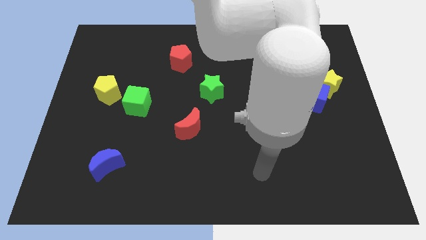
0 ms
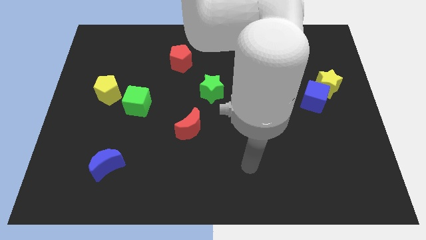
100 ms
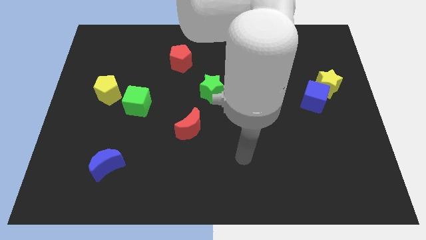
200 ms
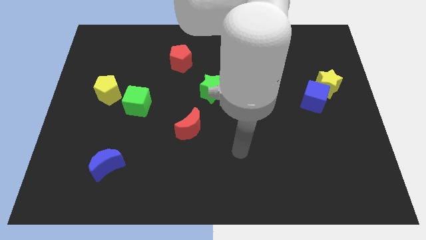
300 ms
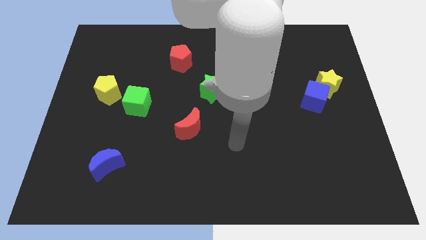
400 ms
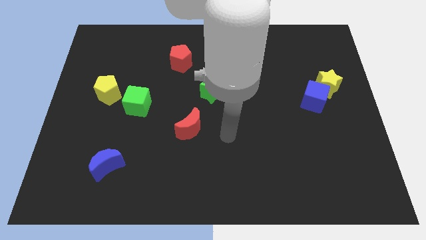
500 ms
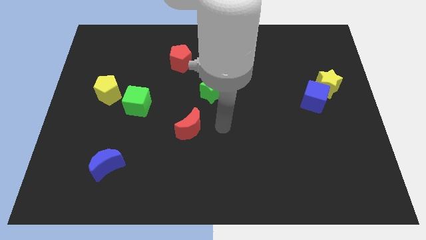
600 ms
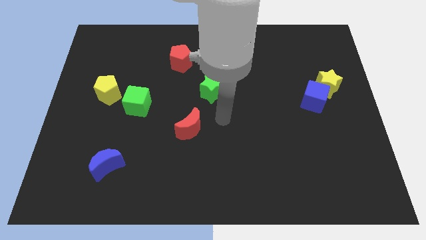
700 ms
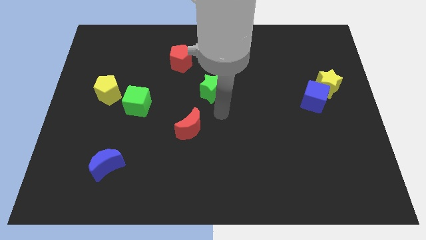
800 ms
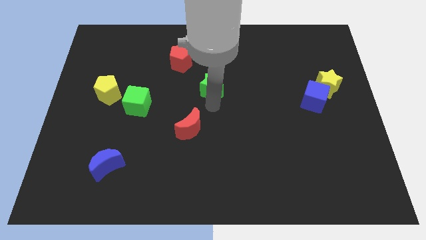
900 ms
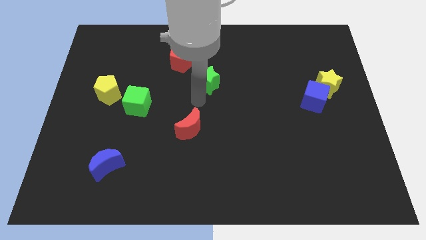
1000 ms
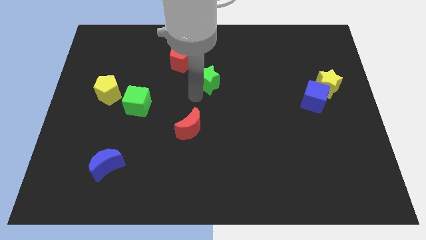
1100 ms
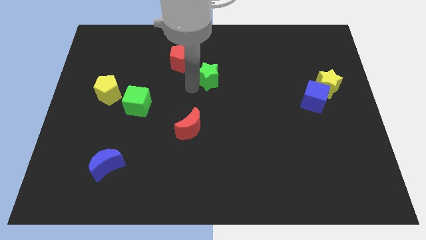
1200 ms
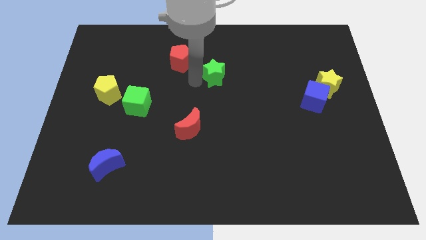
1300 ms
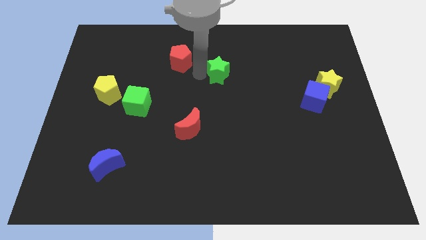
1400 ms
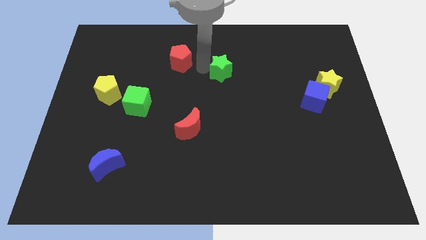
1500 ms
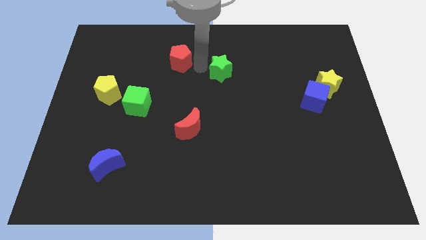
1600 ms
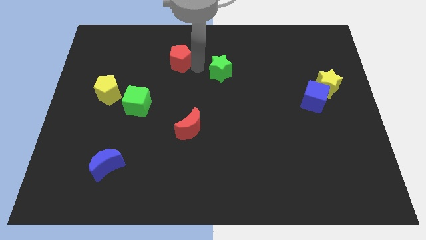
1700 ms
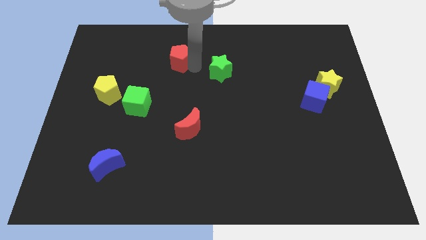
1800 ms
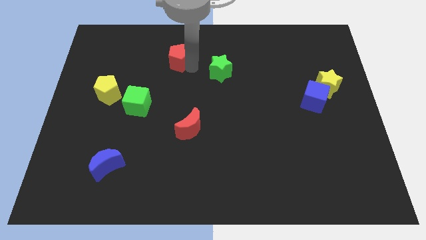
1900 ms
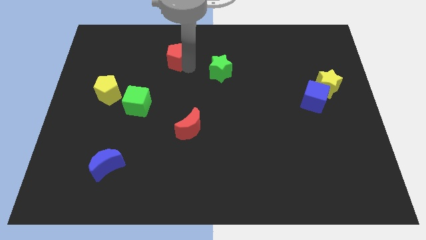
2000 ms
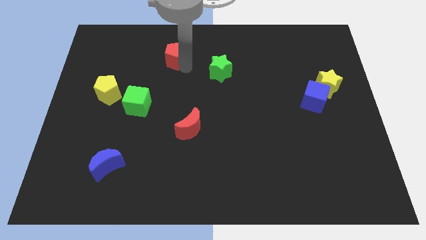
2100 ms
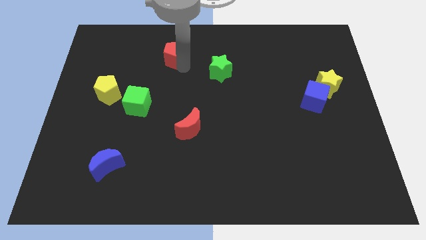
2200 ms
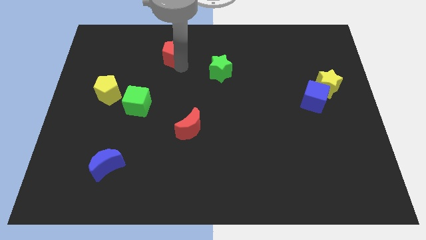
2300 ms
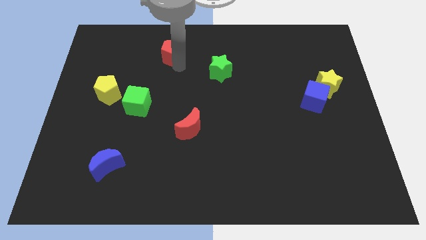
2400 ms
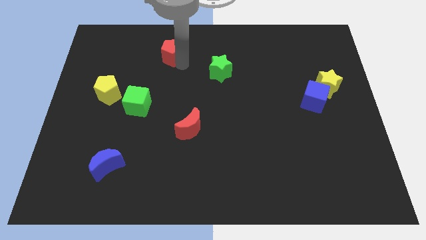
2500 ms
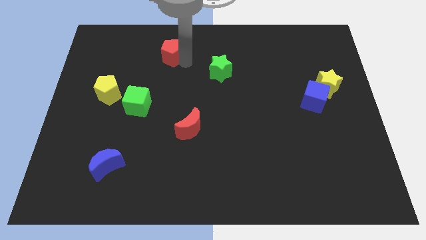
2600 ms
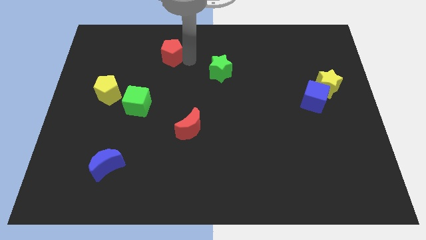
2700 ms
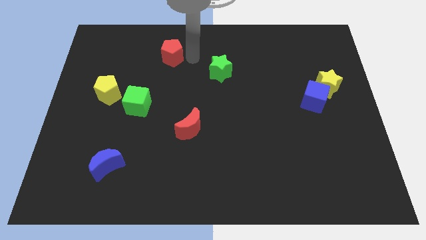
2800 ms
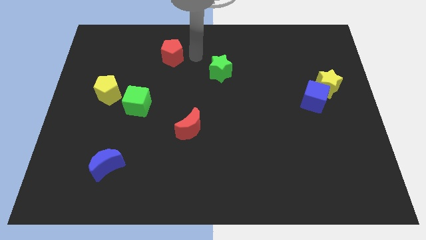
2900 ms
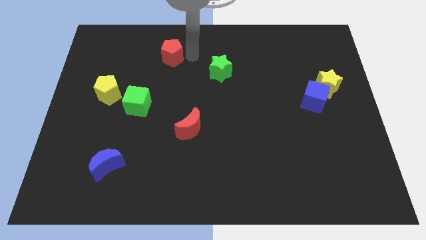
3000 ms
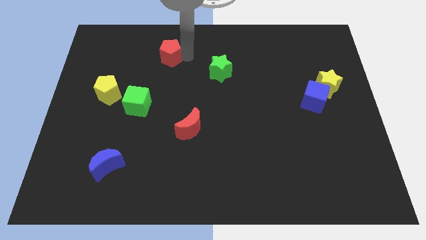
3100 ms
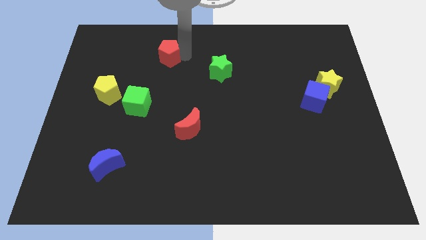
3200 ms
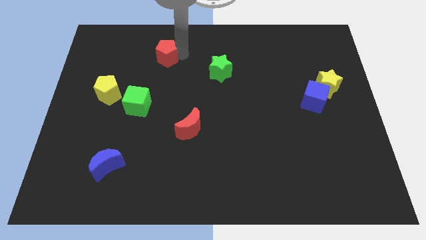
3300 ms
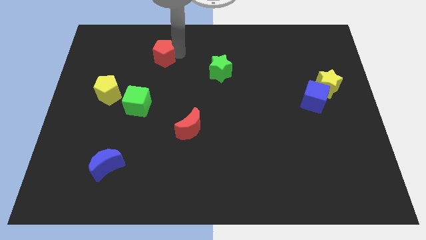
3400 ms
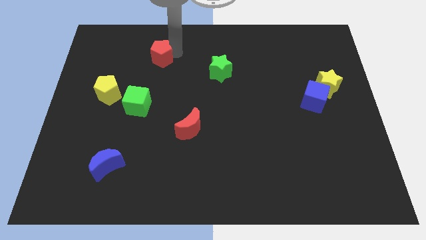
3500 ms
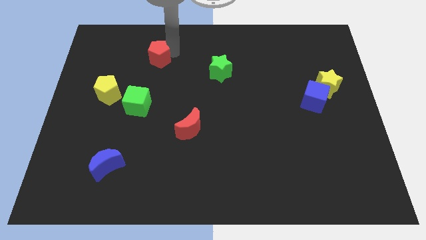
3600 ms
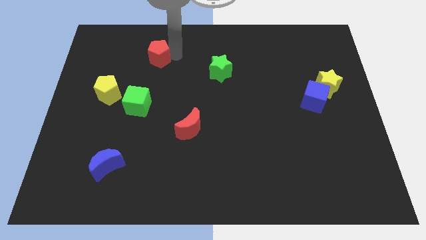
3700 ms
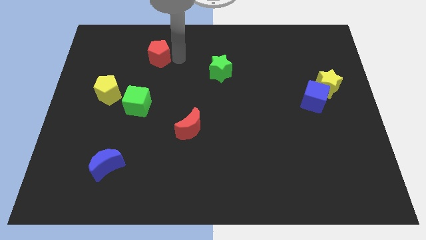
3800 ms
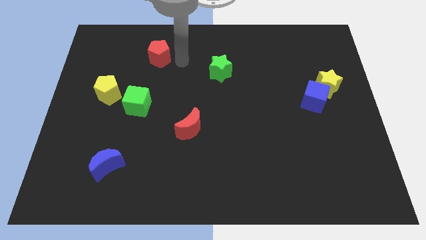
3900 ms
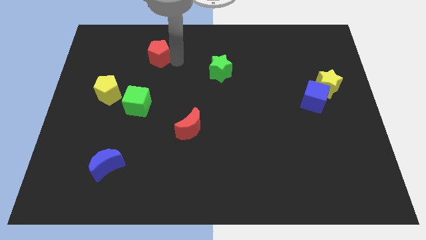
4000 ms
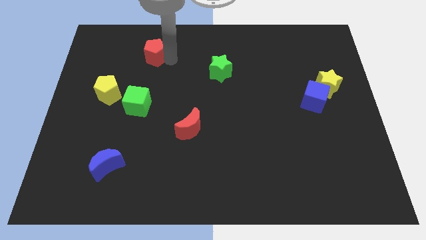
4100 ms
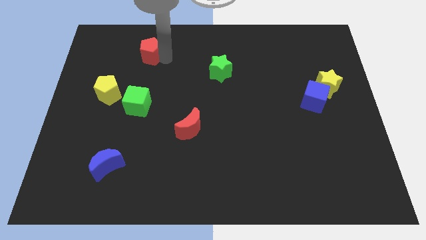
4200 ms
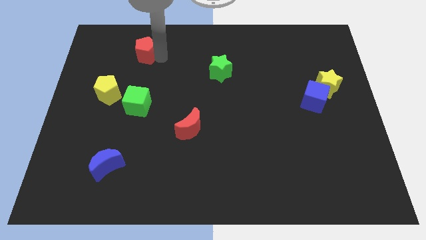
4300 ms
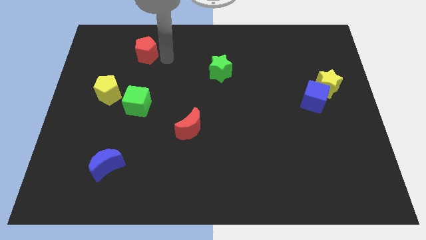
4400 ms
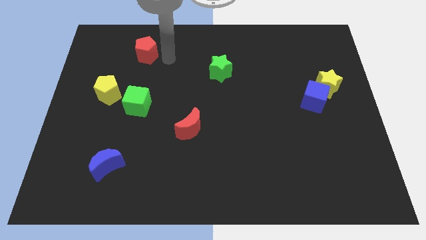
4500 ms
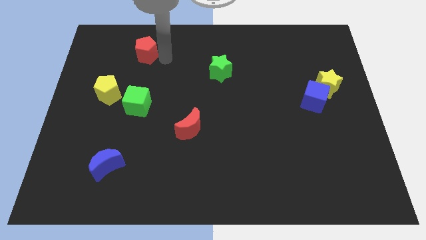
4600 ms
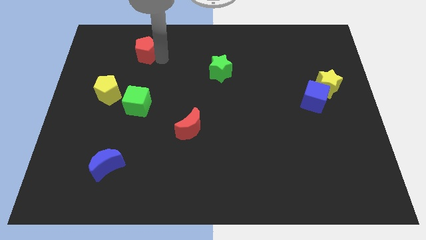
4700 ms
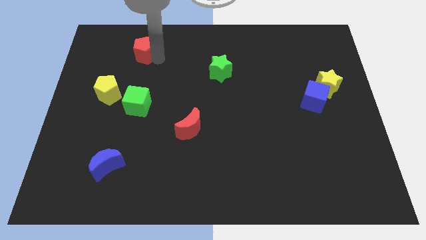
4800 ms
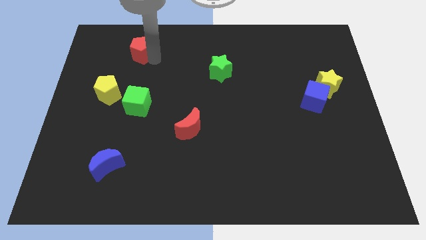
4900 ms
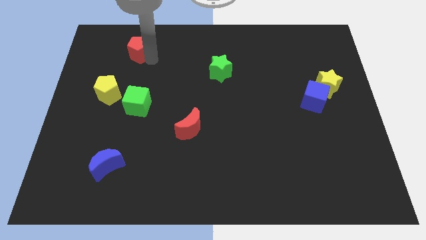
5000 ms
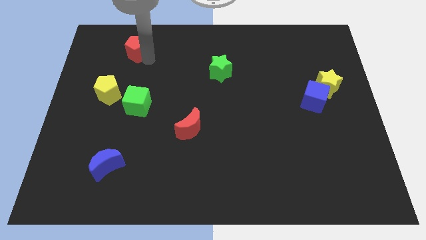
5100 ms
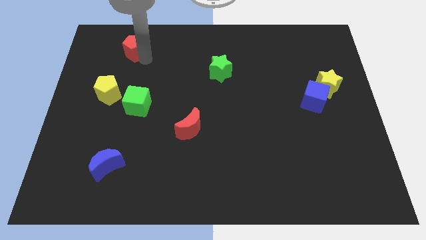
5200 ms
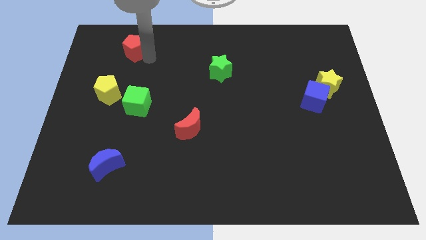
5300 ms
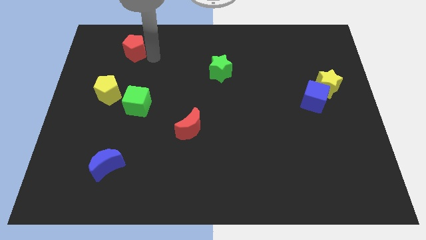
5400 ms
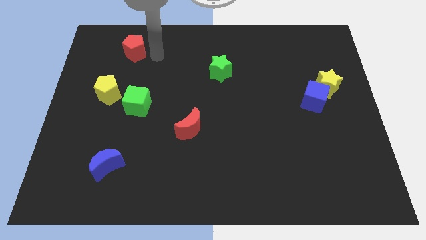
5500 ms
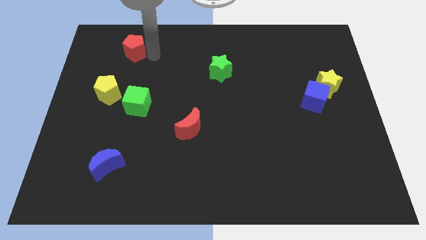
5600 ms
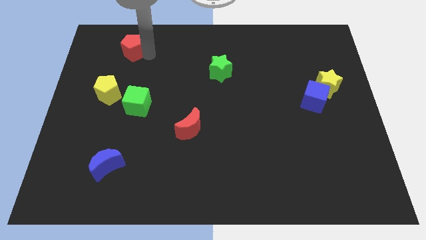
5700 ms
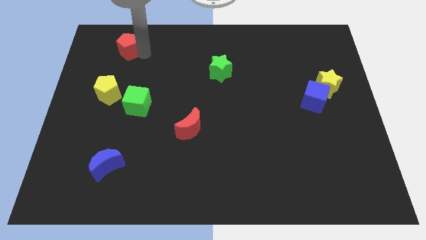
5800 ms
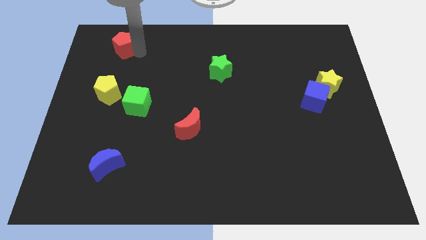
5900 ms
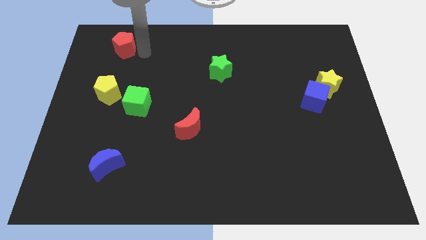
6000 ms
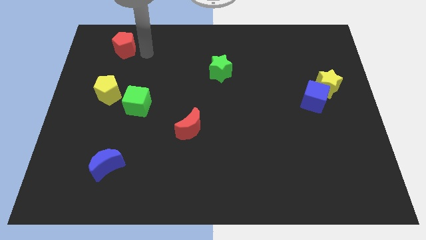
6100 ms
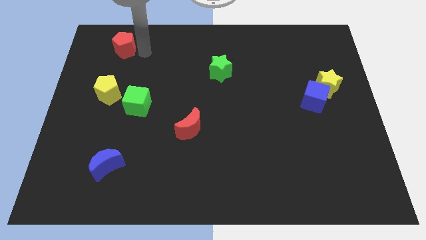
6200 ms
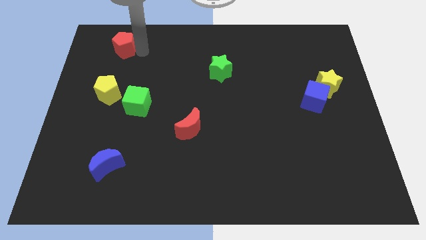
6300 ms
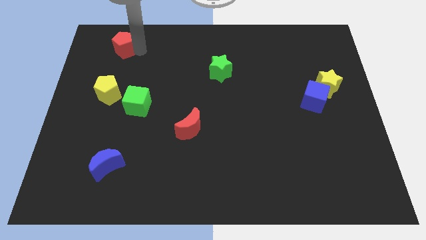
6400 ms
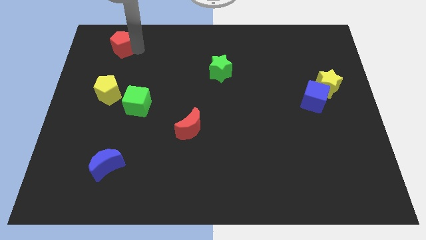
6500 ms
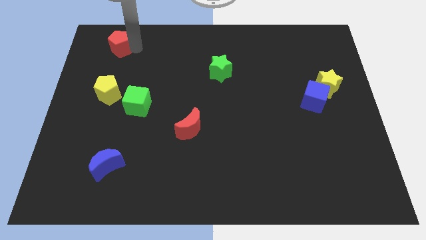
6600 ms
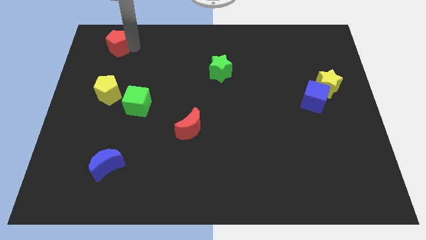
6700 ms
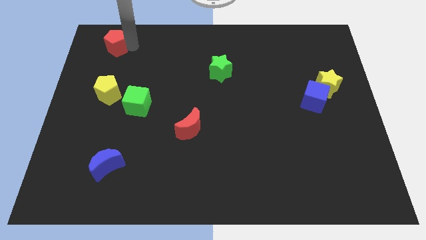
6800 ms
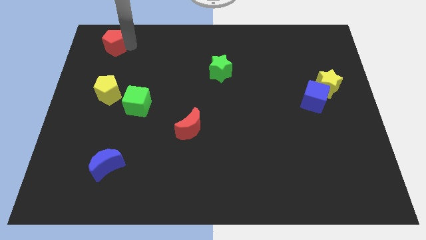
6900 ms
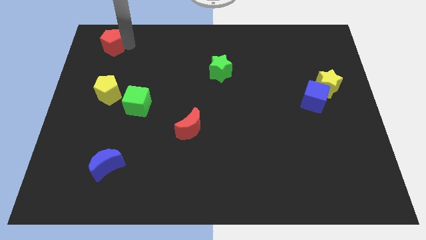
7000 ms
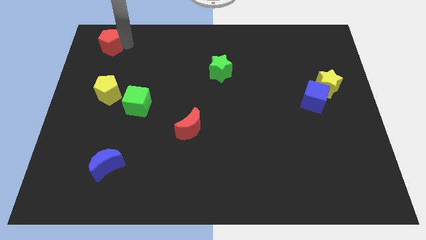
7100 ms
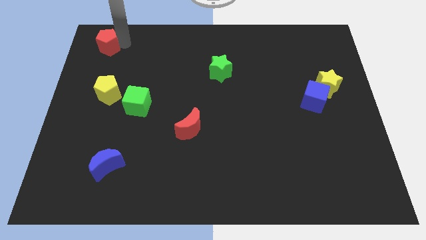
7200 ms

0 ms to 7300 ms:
push the red pentagon to the top left corner
